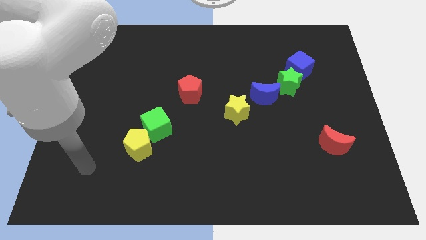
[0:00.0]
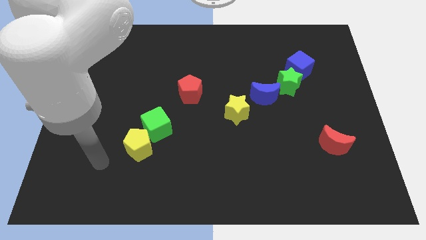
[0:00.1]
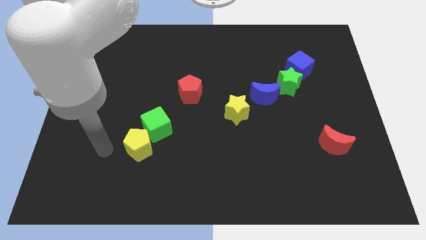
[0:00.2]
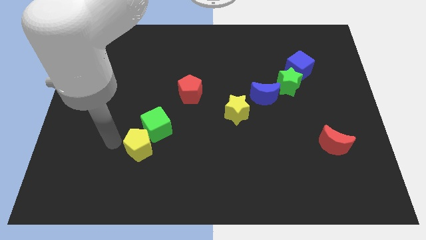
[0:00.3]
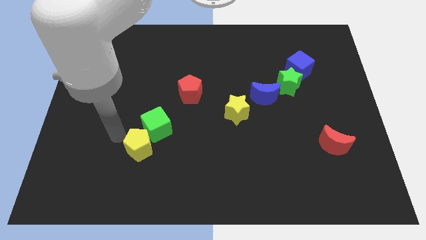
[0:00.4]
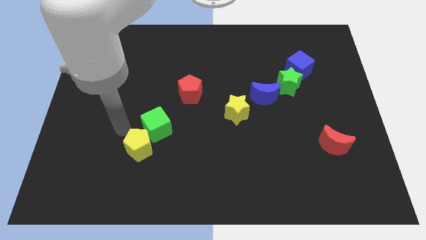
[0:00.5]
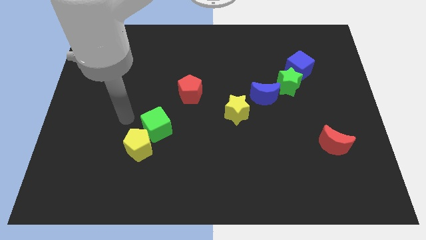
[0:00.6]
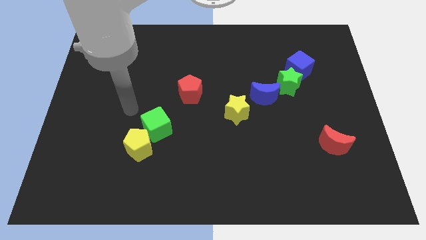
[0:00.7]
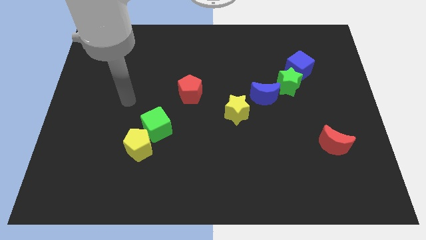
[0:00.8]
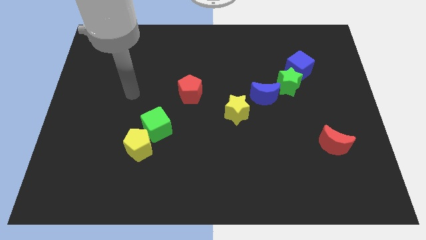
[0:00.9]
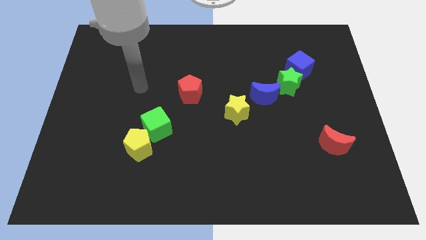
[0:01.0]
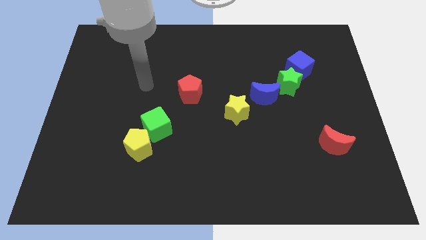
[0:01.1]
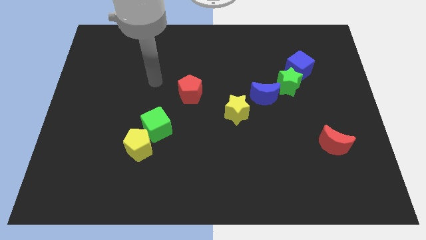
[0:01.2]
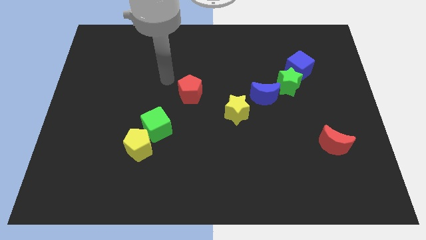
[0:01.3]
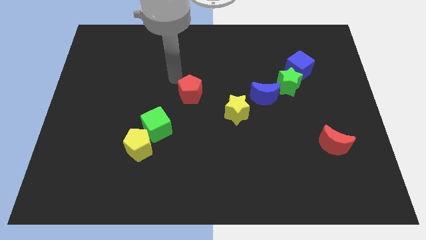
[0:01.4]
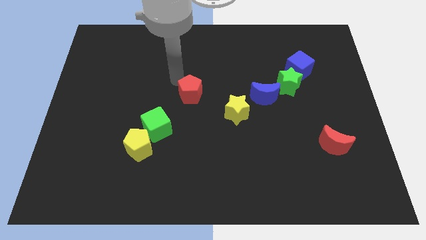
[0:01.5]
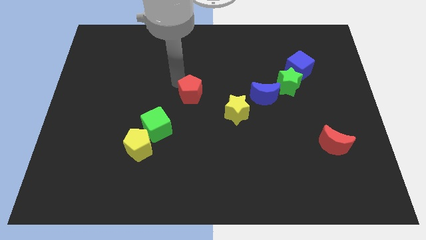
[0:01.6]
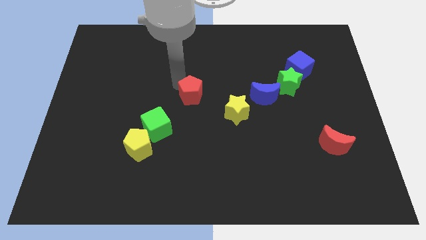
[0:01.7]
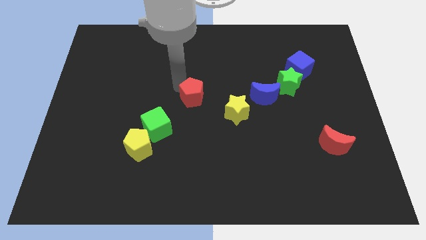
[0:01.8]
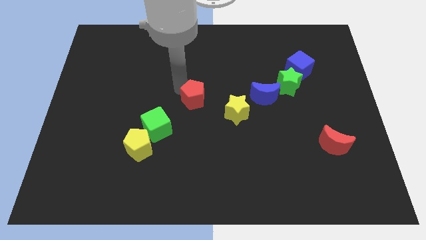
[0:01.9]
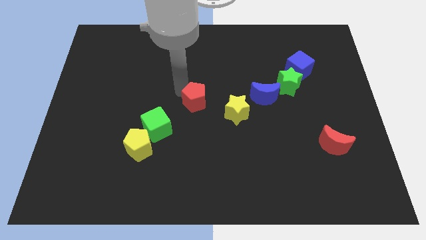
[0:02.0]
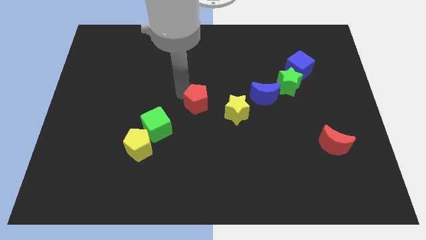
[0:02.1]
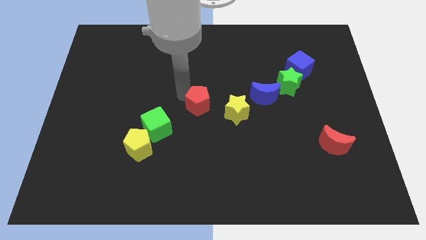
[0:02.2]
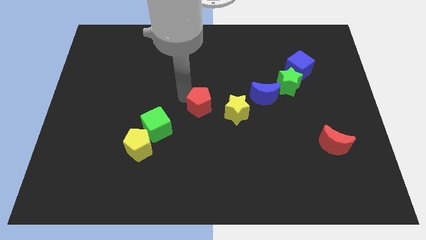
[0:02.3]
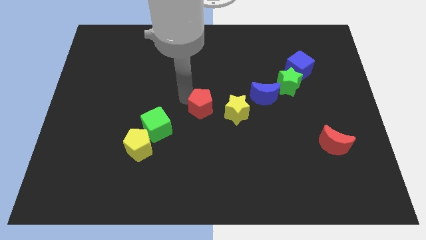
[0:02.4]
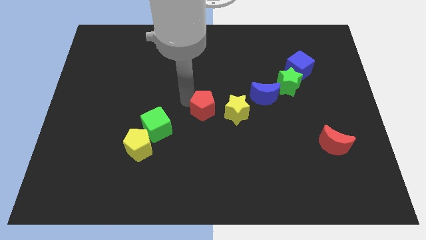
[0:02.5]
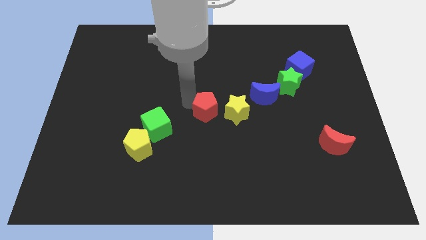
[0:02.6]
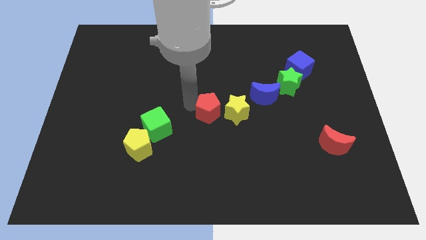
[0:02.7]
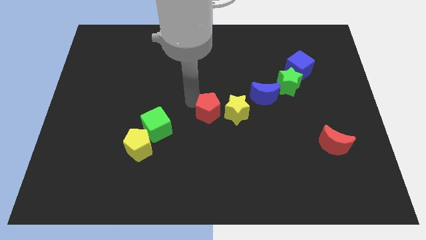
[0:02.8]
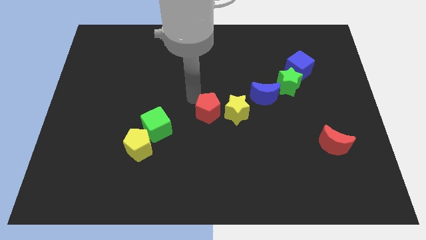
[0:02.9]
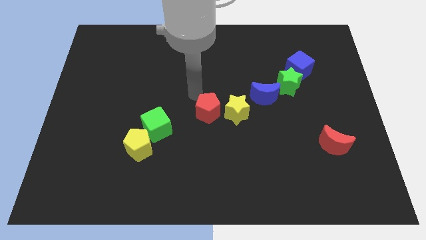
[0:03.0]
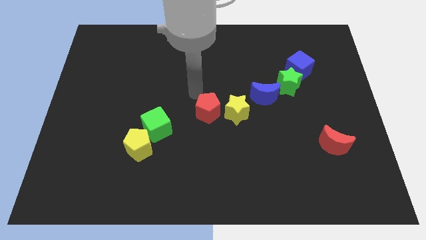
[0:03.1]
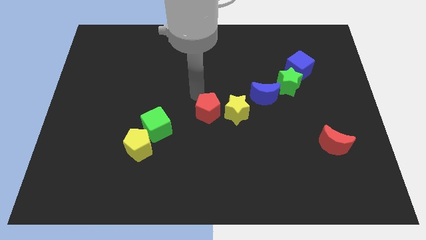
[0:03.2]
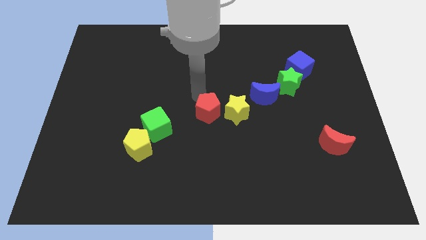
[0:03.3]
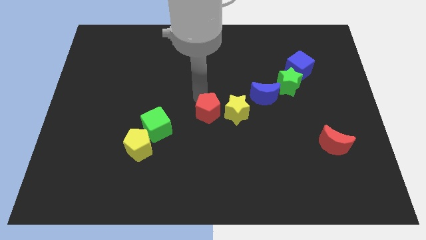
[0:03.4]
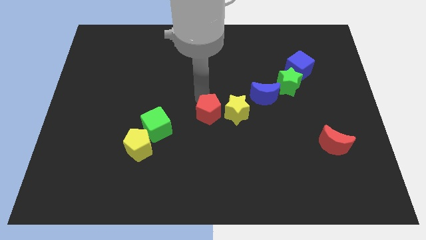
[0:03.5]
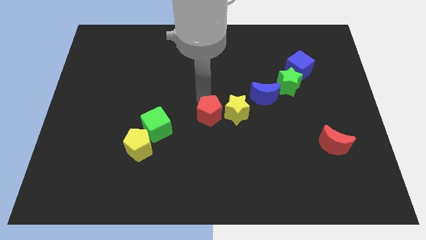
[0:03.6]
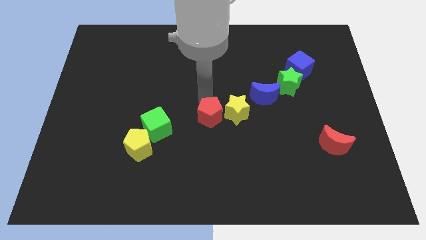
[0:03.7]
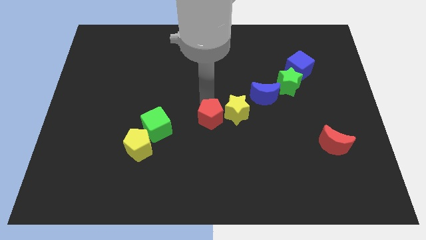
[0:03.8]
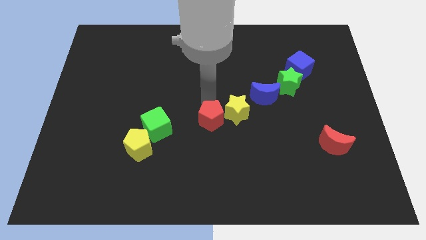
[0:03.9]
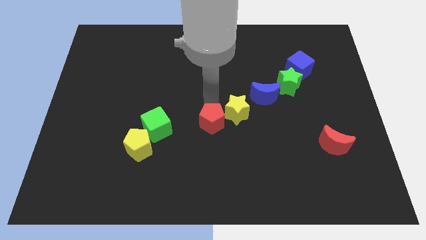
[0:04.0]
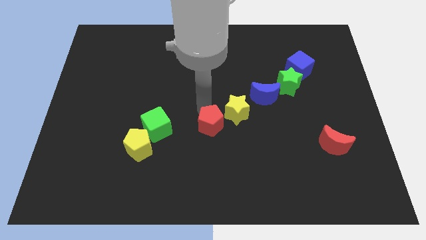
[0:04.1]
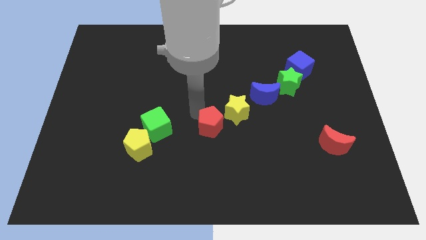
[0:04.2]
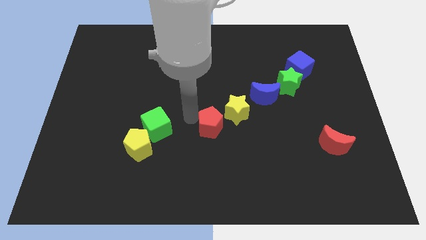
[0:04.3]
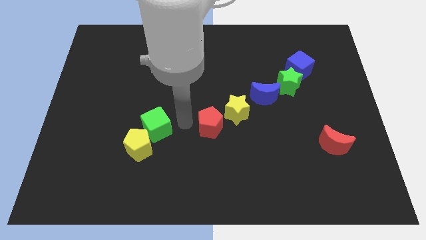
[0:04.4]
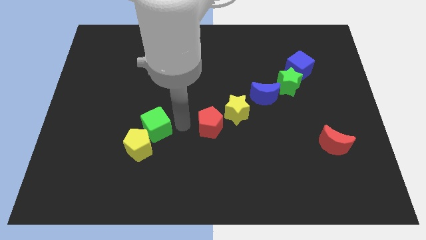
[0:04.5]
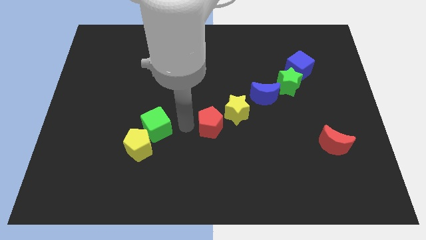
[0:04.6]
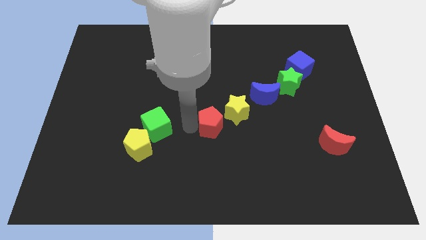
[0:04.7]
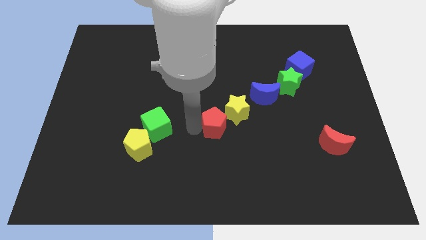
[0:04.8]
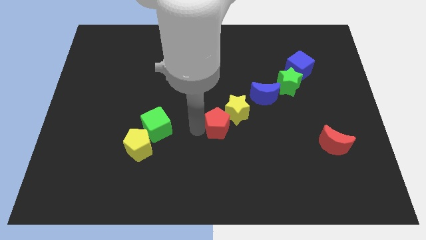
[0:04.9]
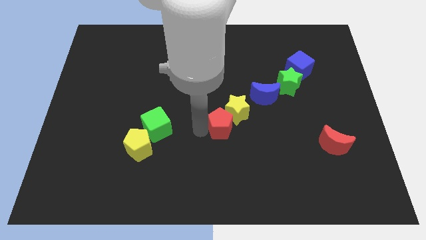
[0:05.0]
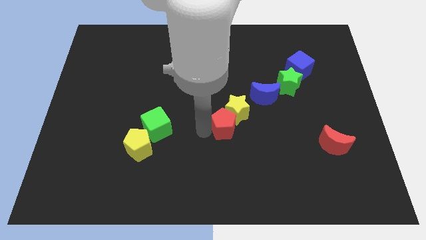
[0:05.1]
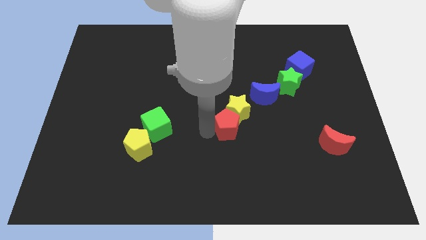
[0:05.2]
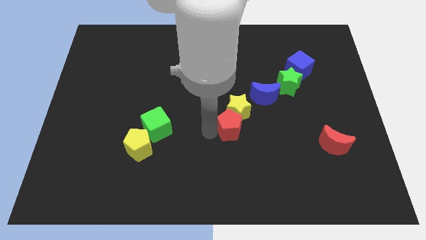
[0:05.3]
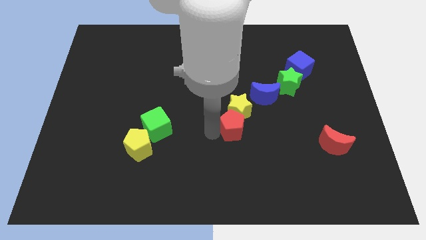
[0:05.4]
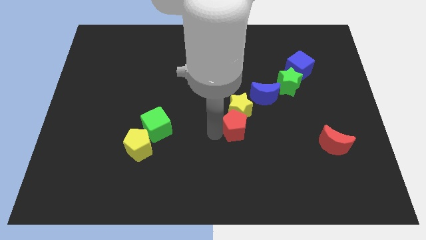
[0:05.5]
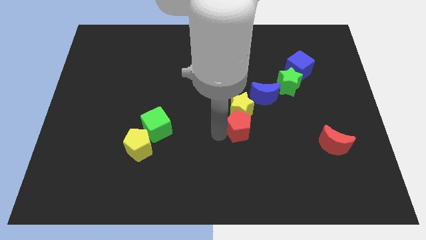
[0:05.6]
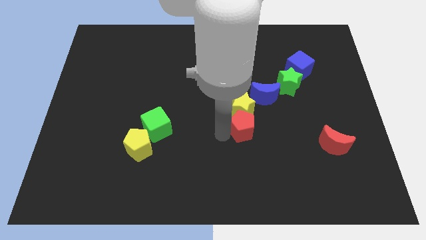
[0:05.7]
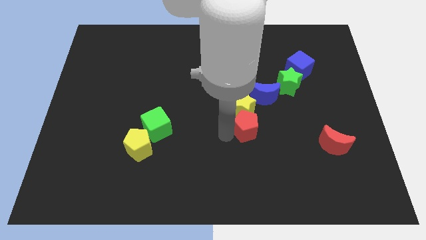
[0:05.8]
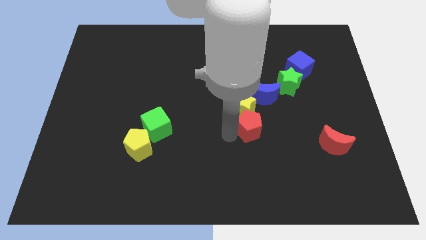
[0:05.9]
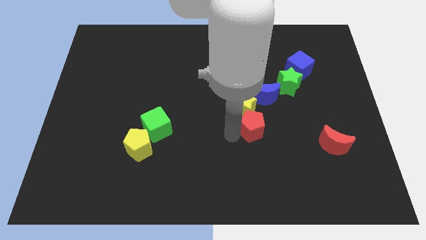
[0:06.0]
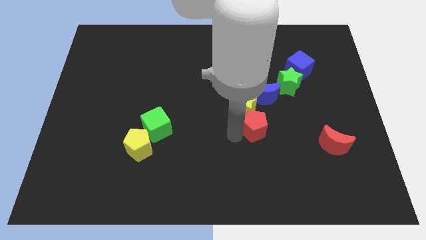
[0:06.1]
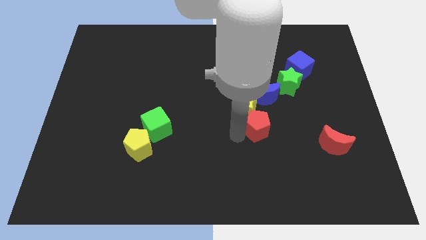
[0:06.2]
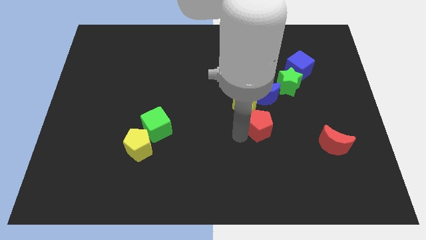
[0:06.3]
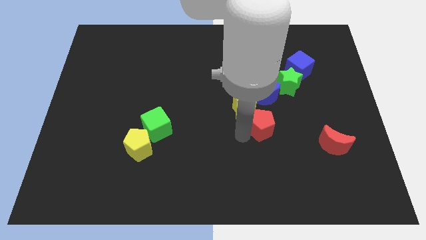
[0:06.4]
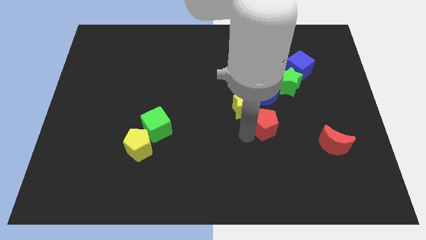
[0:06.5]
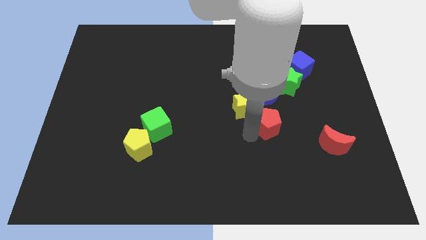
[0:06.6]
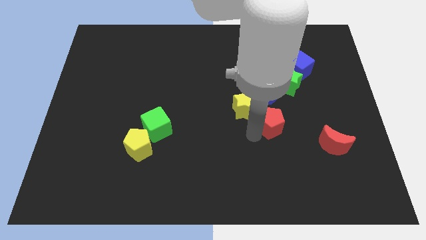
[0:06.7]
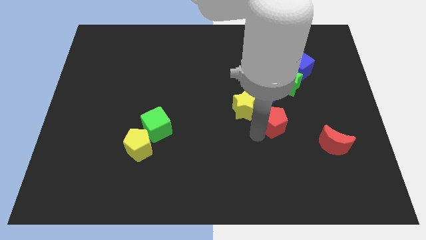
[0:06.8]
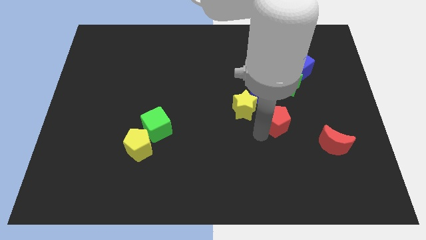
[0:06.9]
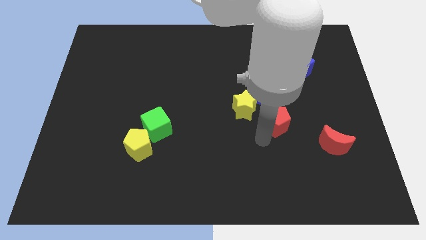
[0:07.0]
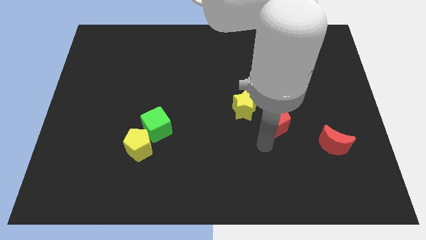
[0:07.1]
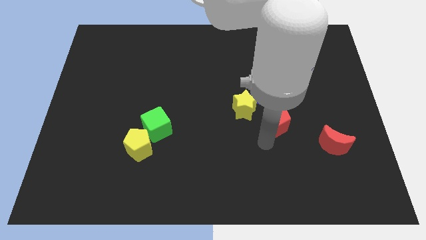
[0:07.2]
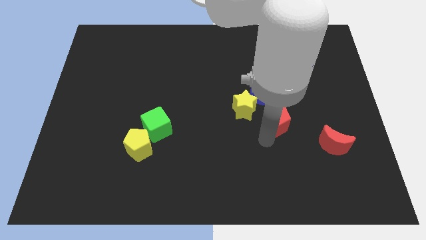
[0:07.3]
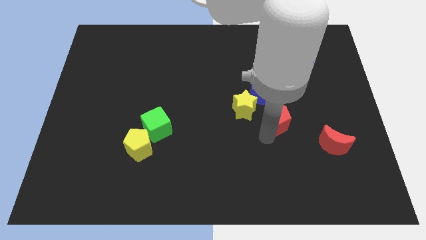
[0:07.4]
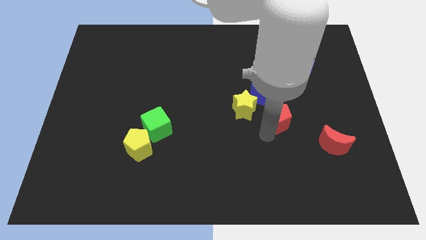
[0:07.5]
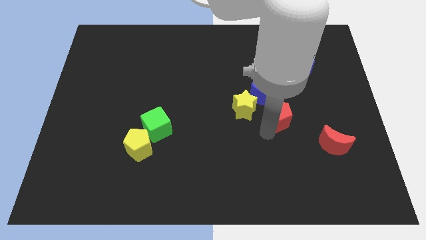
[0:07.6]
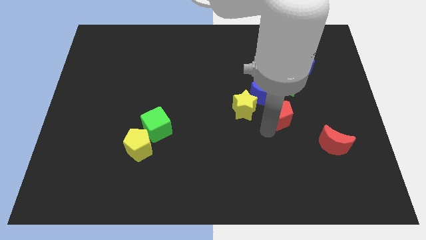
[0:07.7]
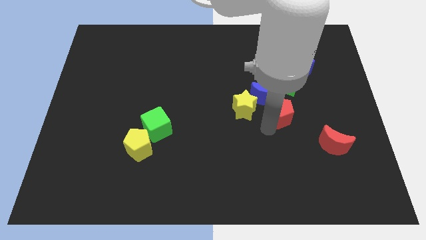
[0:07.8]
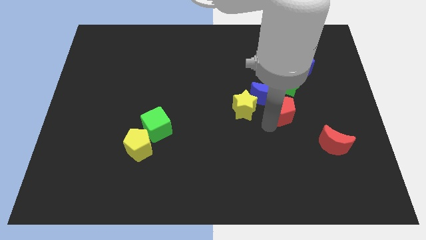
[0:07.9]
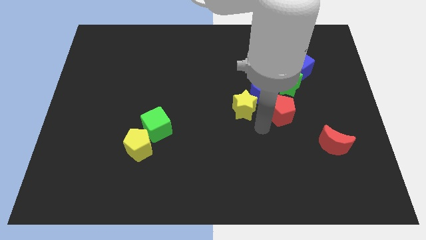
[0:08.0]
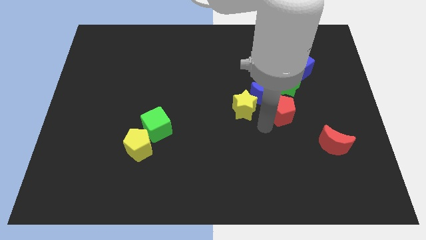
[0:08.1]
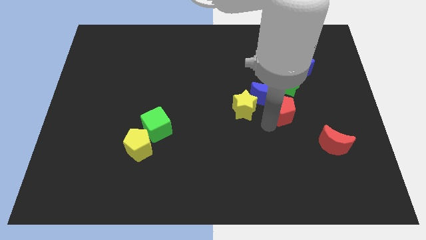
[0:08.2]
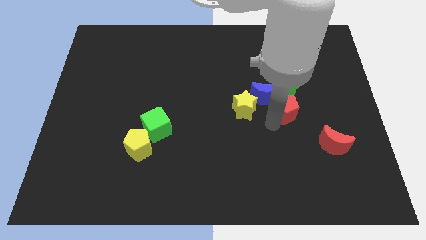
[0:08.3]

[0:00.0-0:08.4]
move the red pentagon to the right of the blue moon
